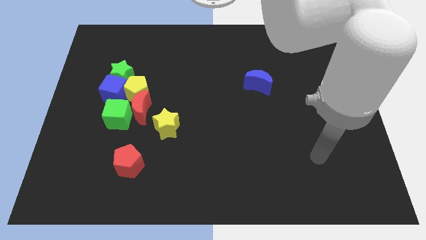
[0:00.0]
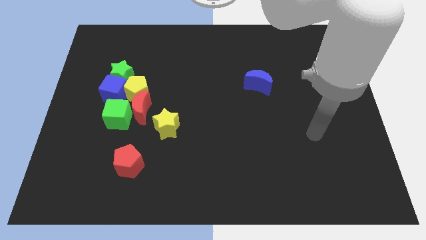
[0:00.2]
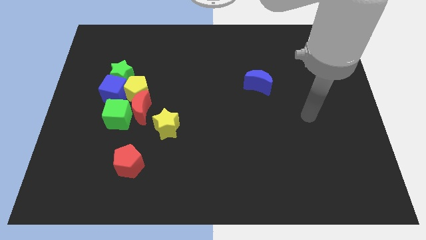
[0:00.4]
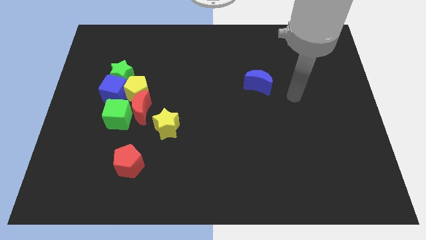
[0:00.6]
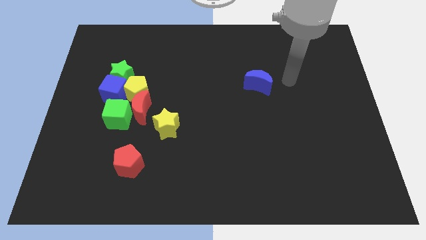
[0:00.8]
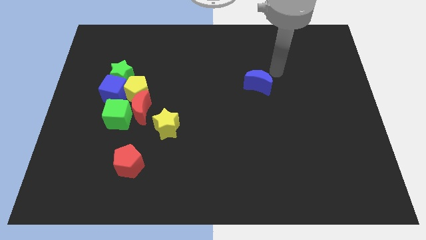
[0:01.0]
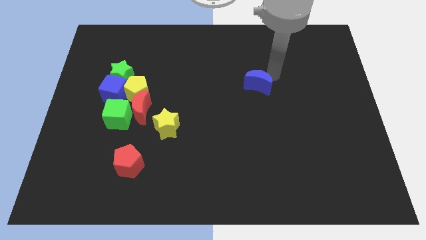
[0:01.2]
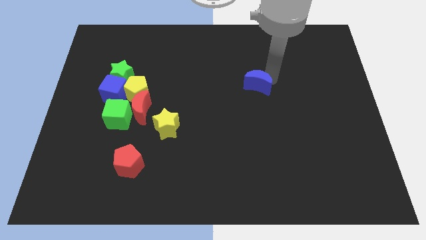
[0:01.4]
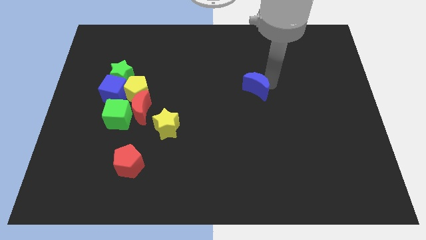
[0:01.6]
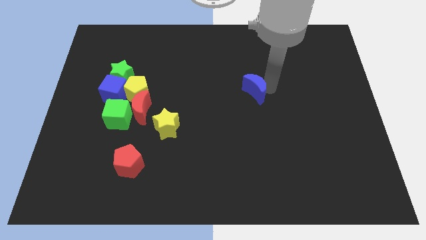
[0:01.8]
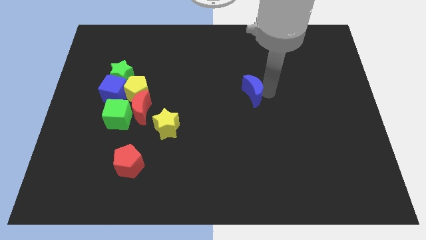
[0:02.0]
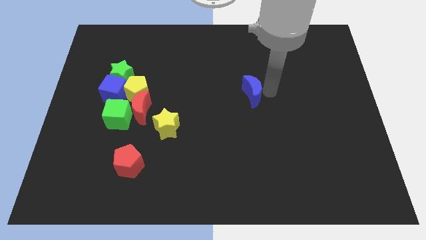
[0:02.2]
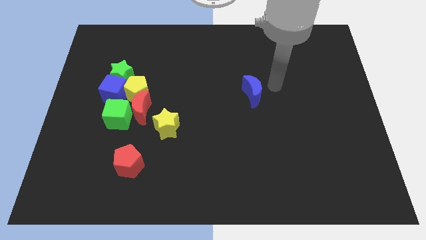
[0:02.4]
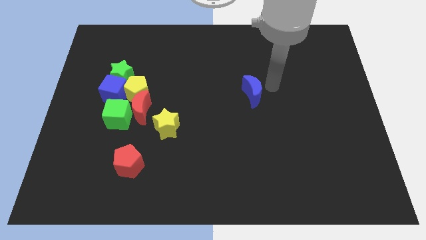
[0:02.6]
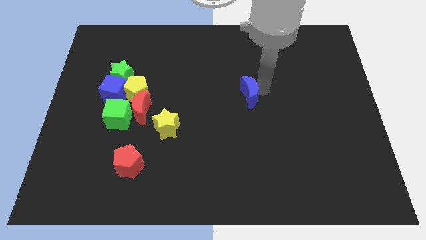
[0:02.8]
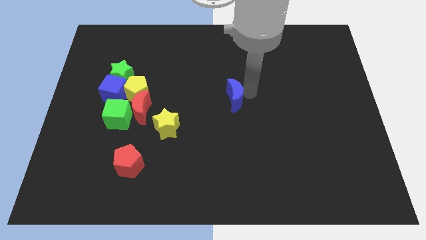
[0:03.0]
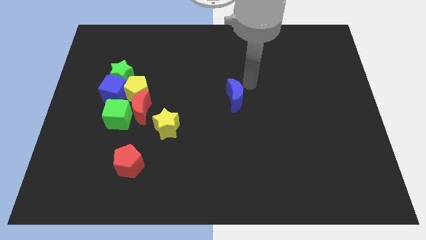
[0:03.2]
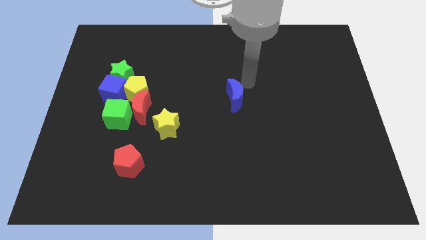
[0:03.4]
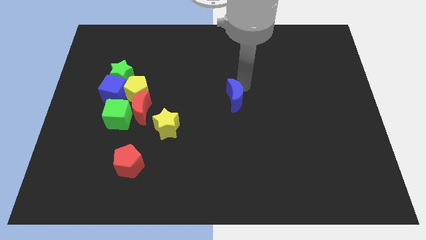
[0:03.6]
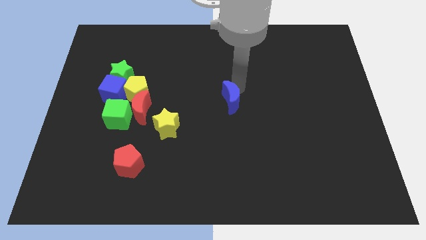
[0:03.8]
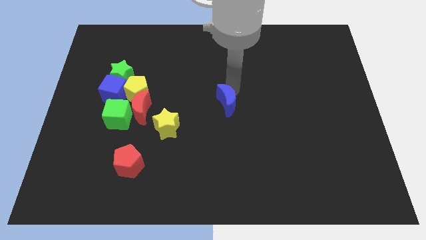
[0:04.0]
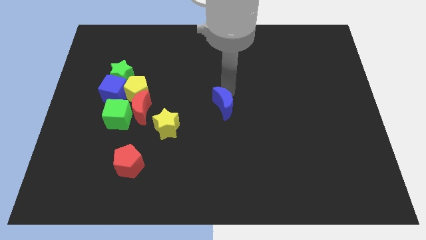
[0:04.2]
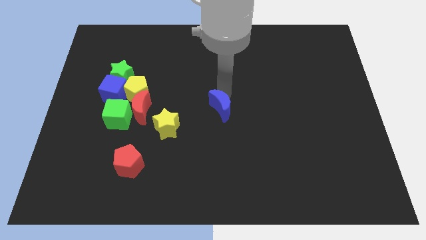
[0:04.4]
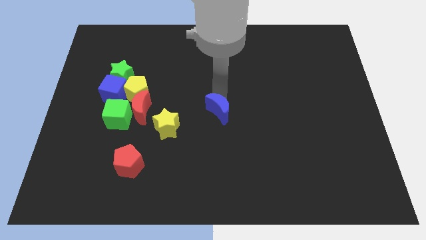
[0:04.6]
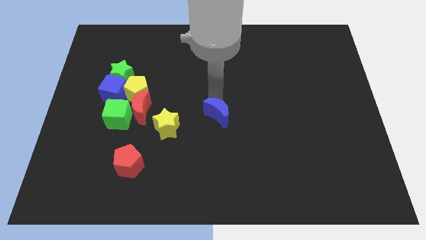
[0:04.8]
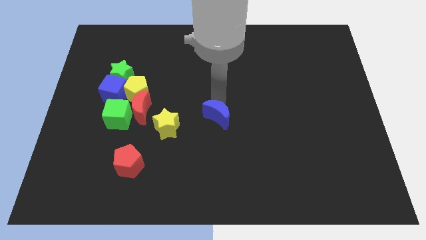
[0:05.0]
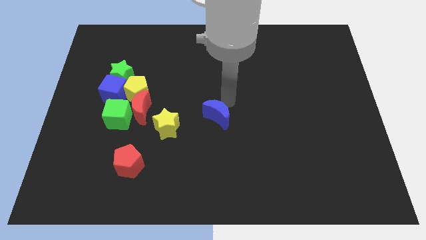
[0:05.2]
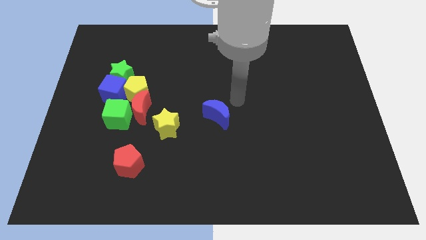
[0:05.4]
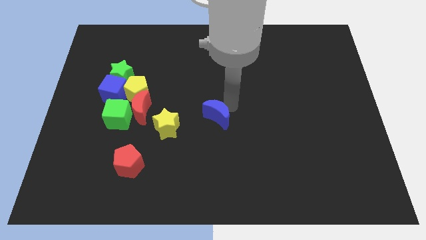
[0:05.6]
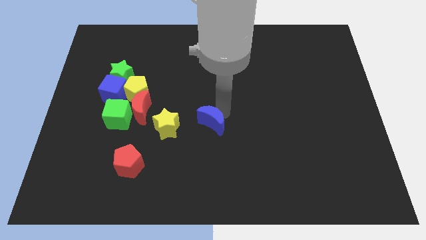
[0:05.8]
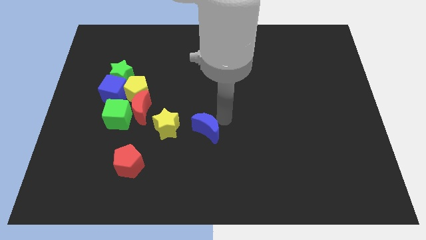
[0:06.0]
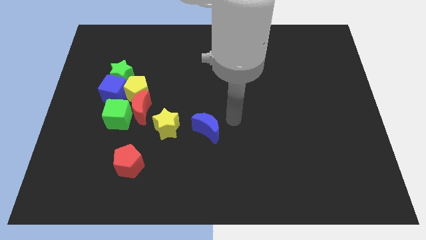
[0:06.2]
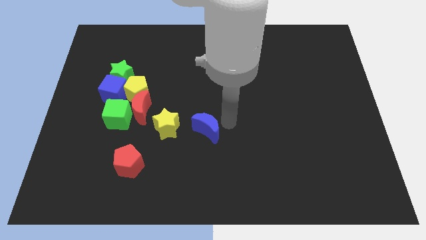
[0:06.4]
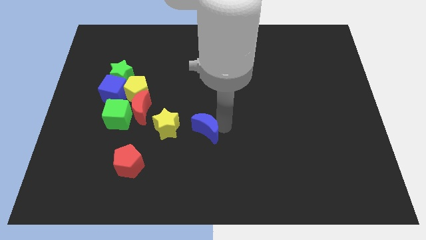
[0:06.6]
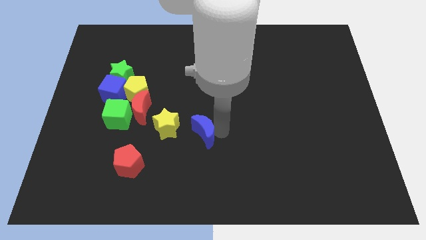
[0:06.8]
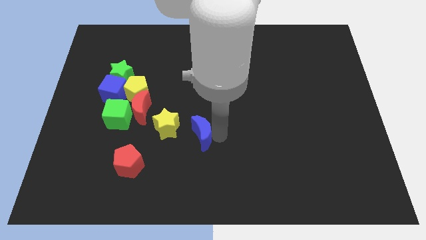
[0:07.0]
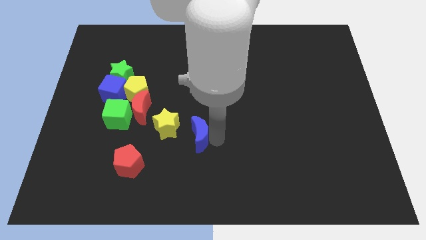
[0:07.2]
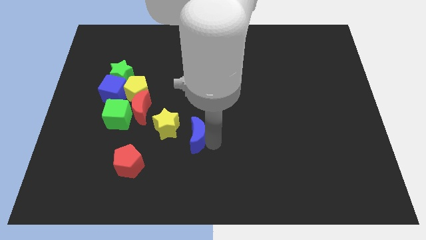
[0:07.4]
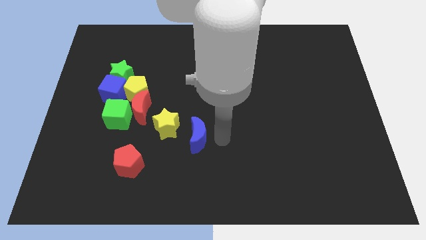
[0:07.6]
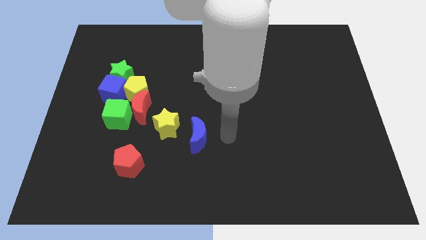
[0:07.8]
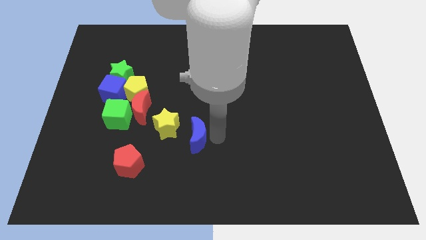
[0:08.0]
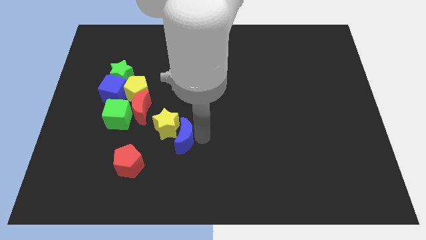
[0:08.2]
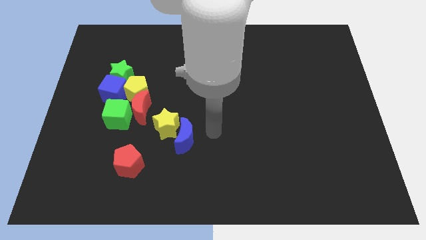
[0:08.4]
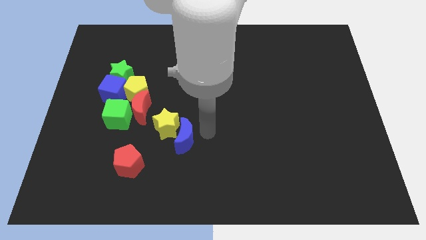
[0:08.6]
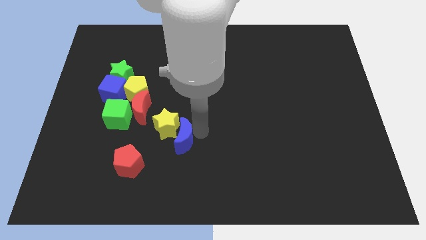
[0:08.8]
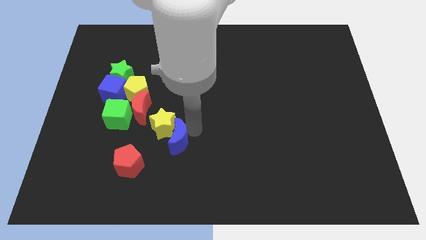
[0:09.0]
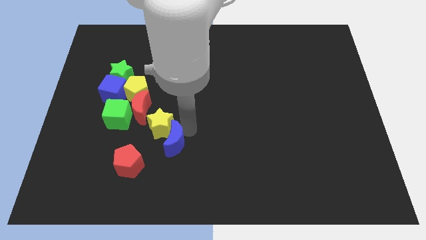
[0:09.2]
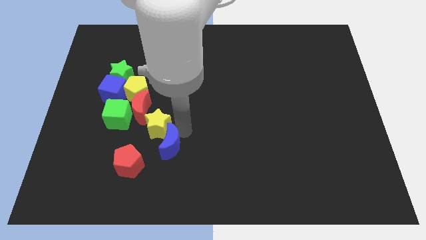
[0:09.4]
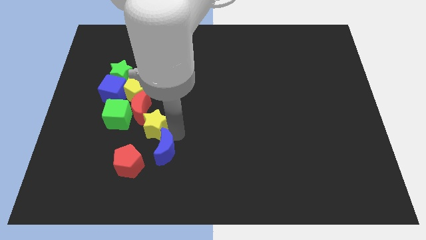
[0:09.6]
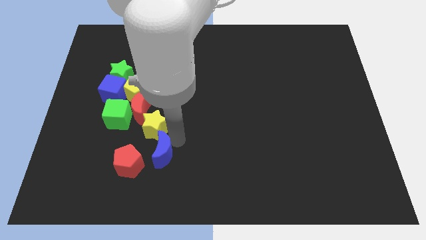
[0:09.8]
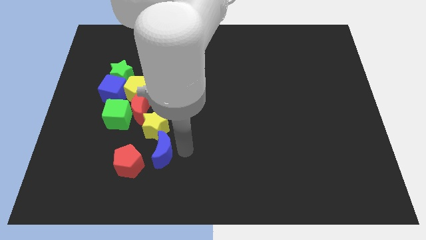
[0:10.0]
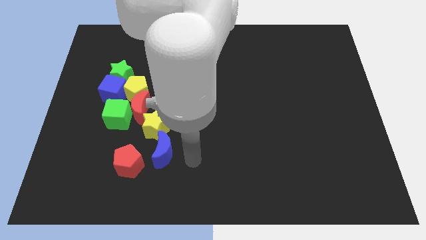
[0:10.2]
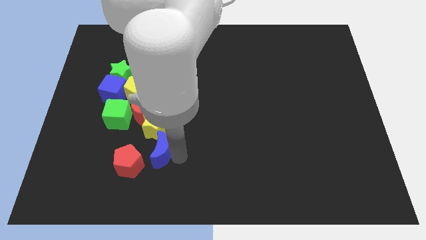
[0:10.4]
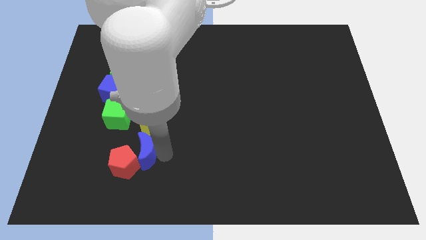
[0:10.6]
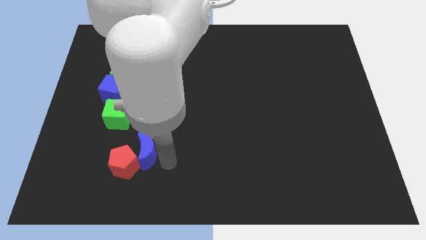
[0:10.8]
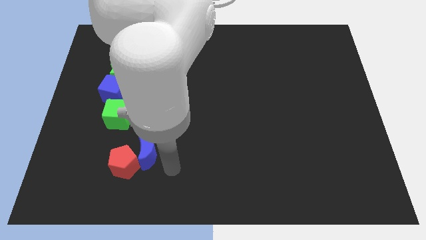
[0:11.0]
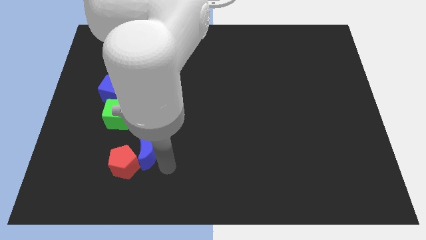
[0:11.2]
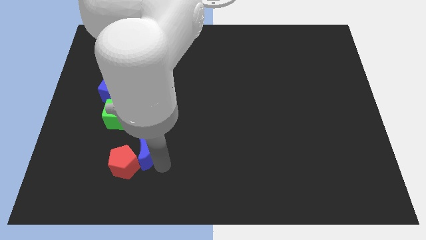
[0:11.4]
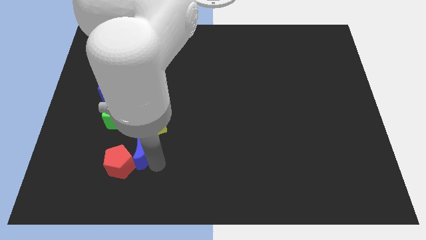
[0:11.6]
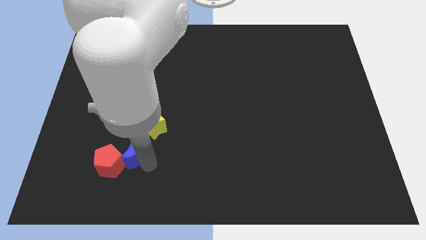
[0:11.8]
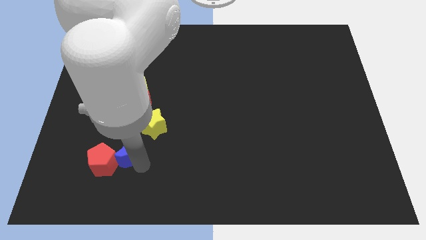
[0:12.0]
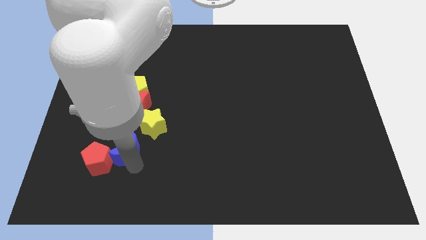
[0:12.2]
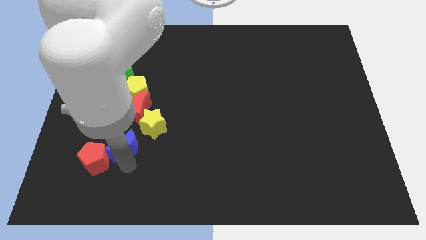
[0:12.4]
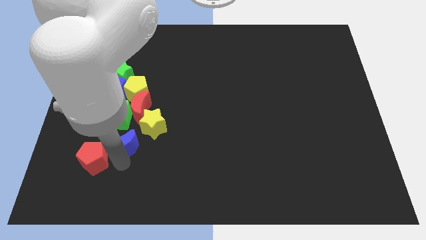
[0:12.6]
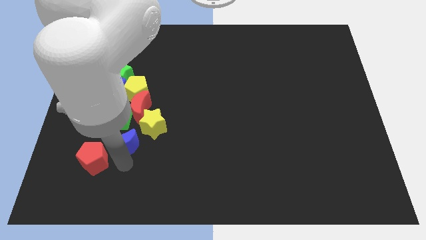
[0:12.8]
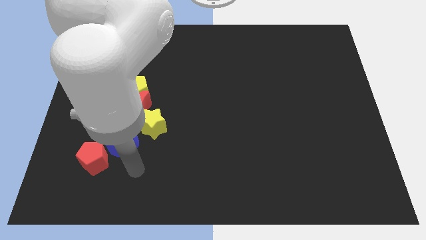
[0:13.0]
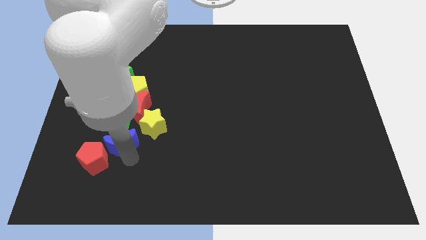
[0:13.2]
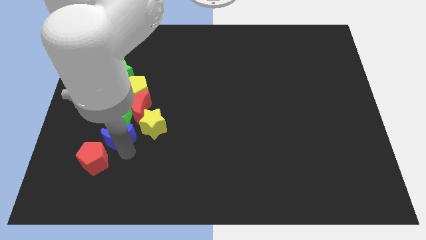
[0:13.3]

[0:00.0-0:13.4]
put the blue moon to the bottom left of the red moon

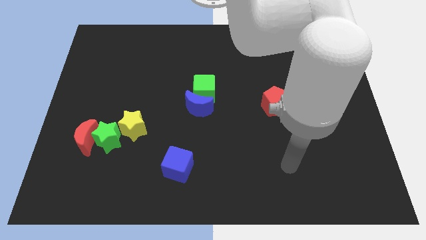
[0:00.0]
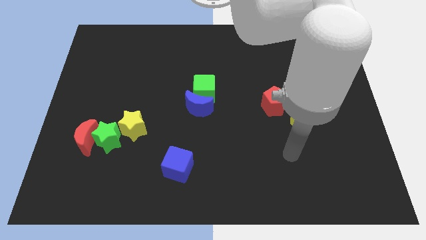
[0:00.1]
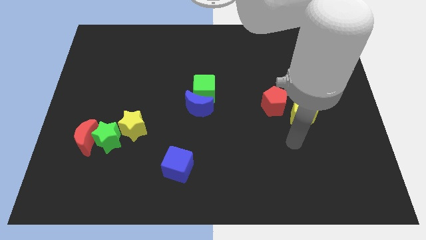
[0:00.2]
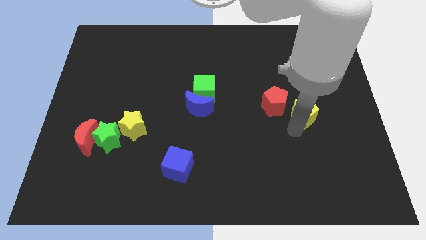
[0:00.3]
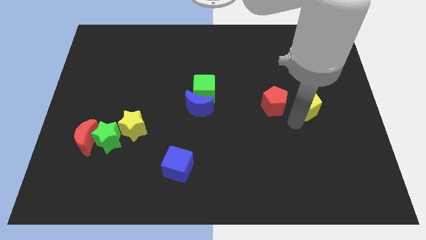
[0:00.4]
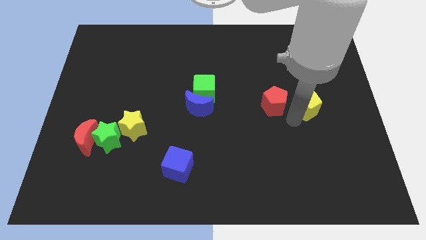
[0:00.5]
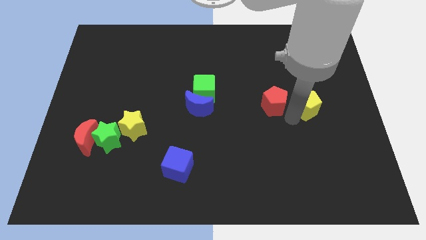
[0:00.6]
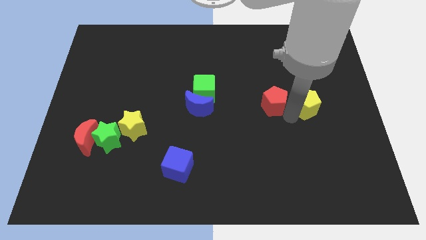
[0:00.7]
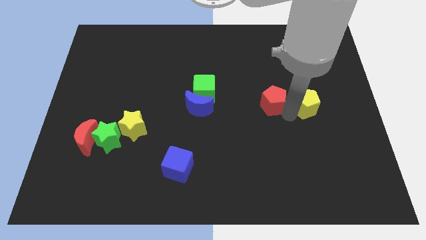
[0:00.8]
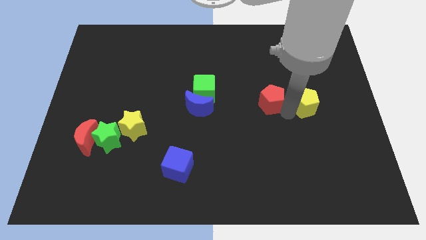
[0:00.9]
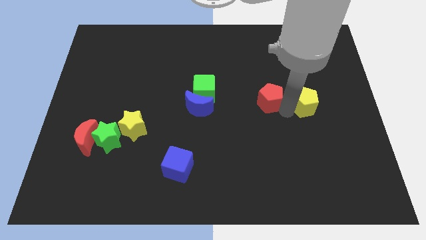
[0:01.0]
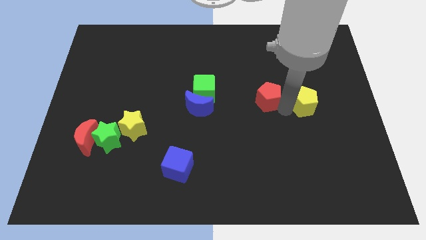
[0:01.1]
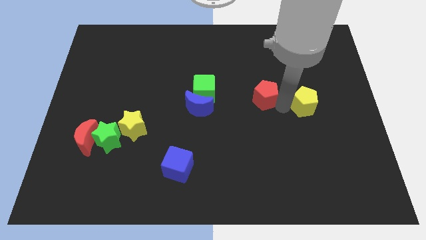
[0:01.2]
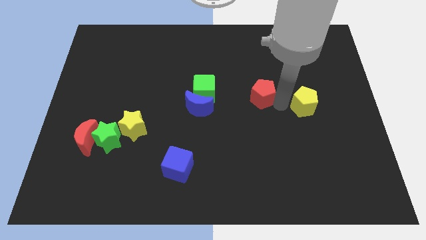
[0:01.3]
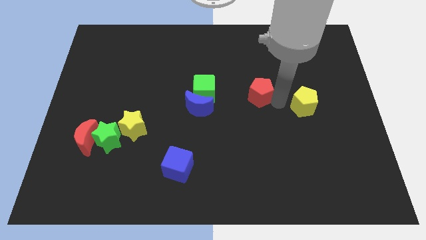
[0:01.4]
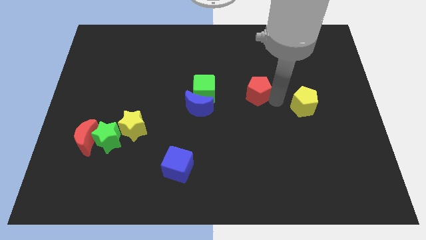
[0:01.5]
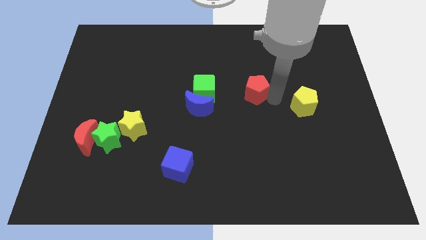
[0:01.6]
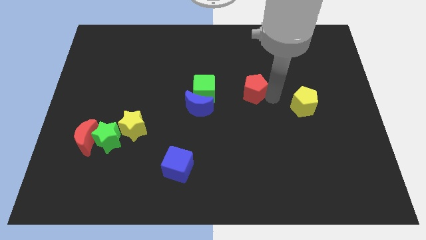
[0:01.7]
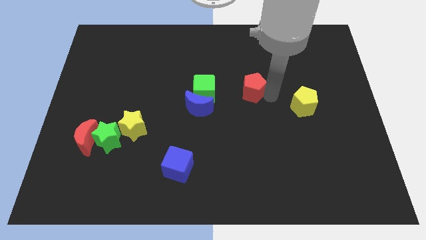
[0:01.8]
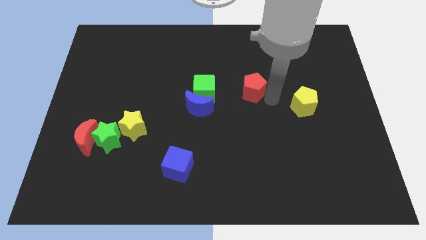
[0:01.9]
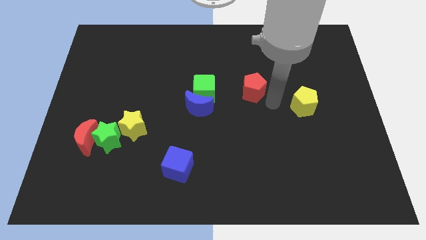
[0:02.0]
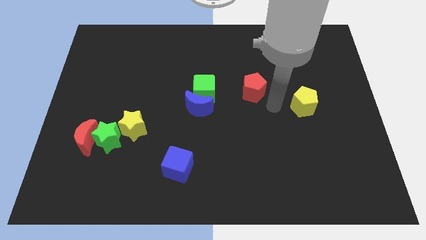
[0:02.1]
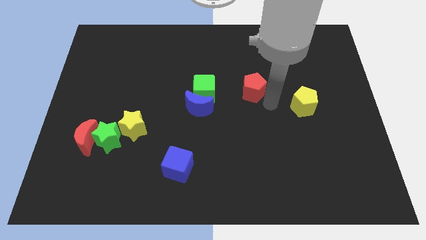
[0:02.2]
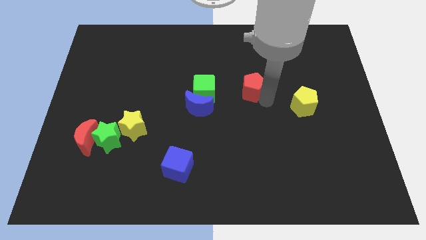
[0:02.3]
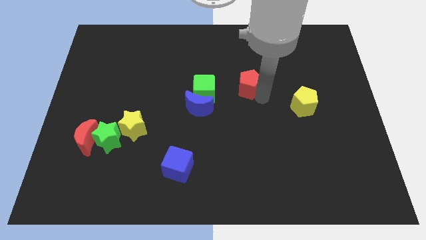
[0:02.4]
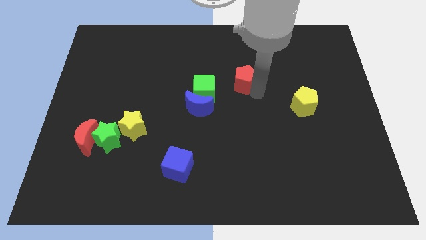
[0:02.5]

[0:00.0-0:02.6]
push the red pentagon to the top right of the green cube
